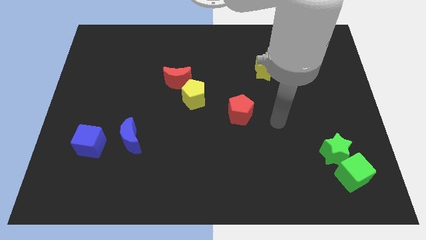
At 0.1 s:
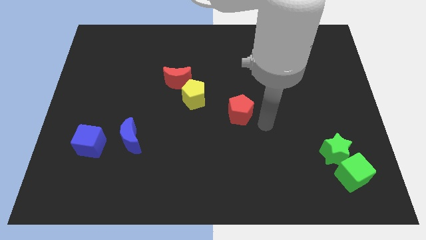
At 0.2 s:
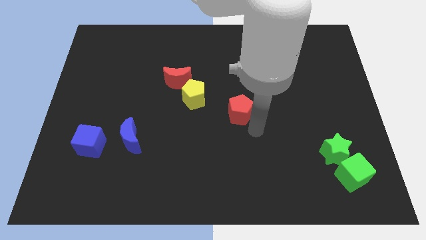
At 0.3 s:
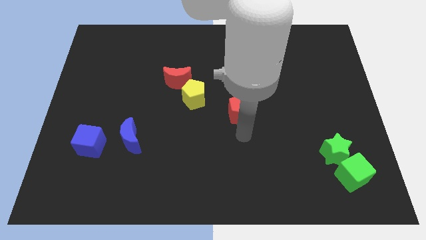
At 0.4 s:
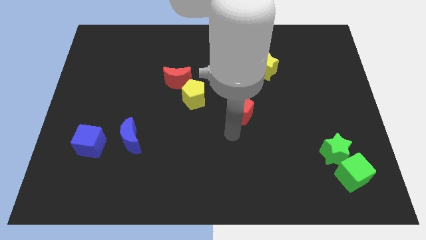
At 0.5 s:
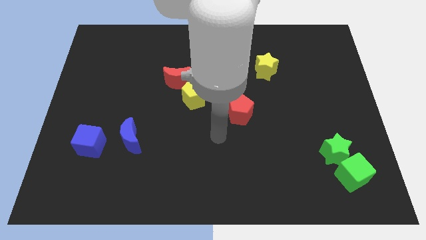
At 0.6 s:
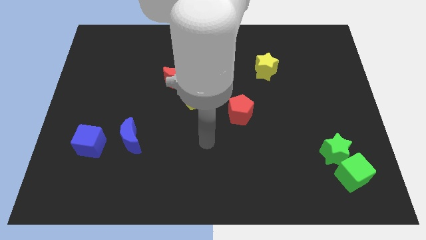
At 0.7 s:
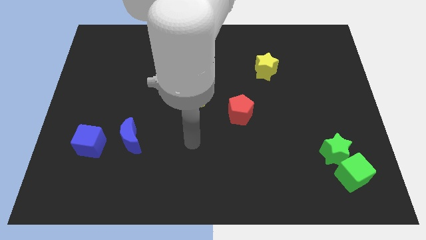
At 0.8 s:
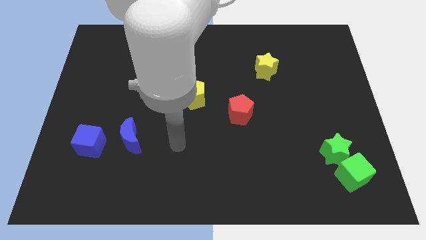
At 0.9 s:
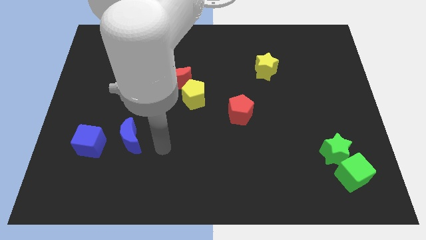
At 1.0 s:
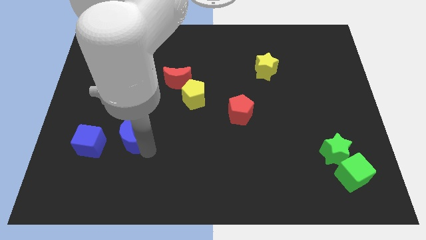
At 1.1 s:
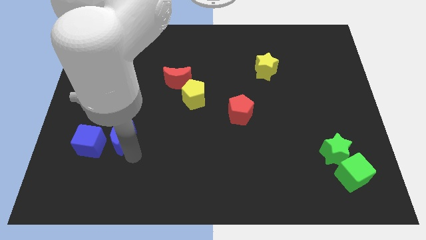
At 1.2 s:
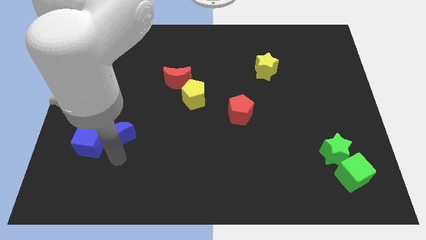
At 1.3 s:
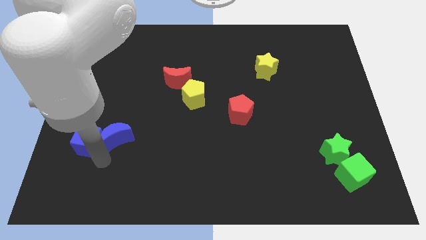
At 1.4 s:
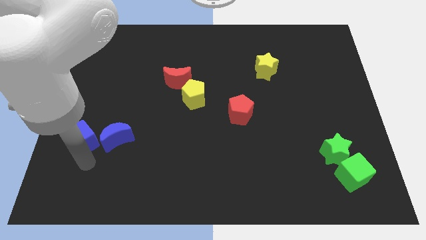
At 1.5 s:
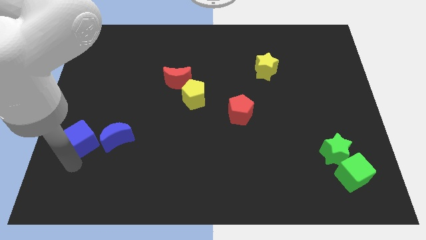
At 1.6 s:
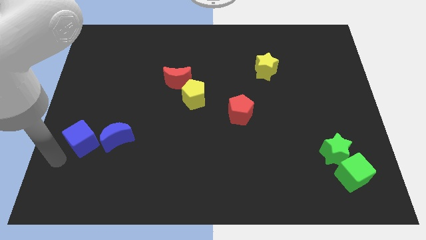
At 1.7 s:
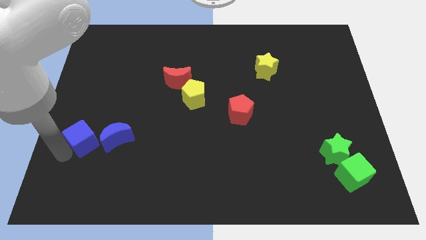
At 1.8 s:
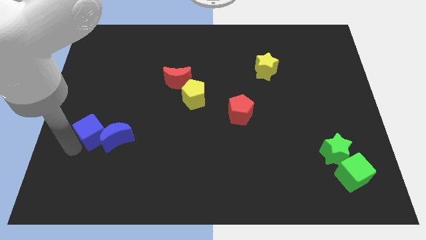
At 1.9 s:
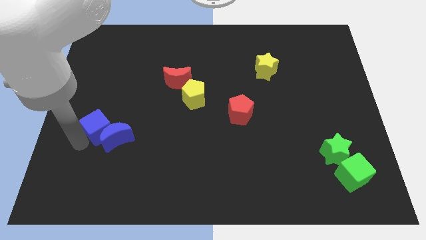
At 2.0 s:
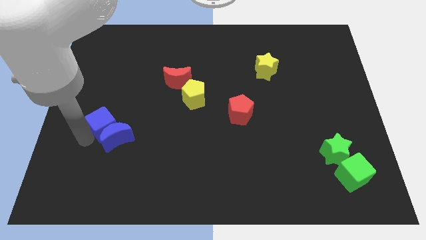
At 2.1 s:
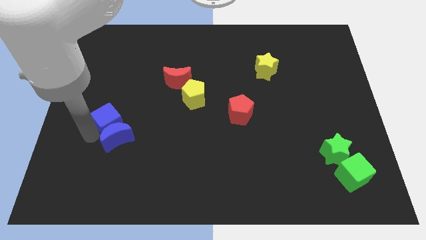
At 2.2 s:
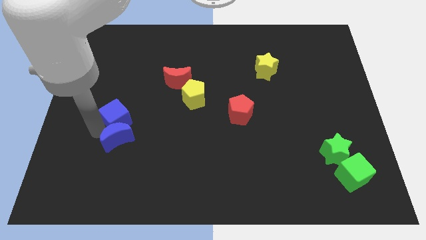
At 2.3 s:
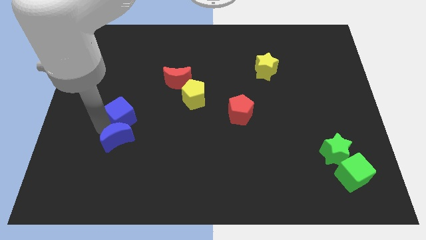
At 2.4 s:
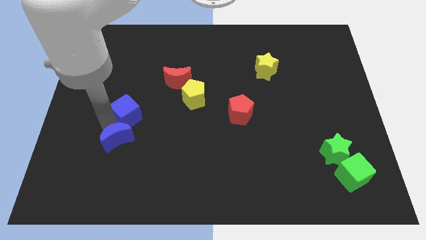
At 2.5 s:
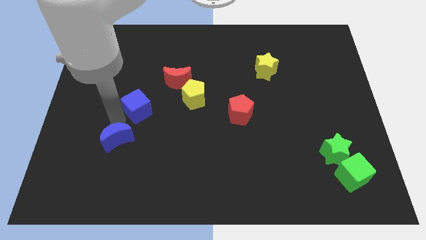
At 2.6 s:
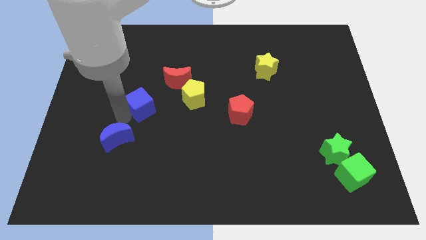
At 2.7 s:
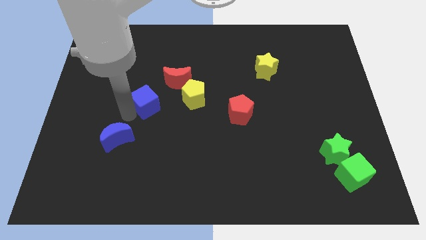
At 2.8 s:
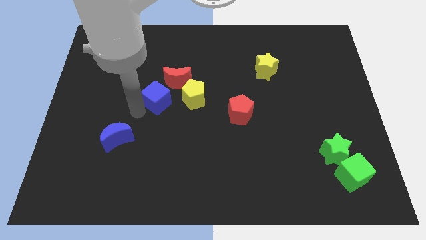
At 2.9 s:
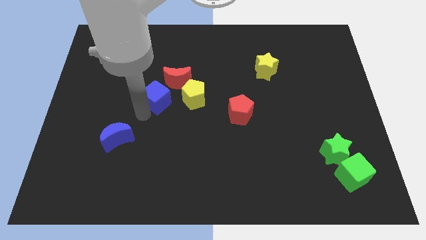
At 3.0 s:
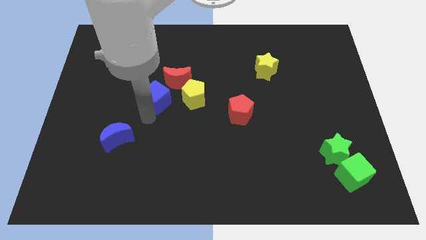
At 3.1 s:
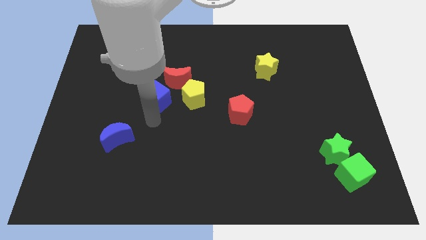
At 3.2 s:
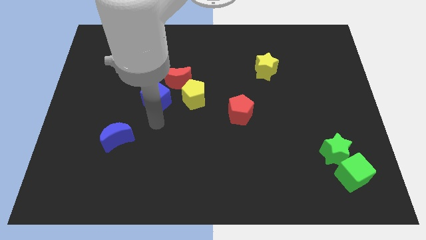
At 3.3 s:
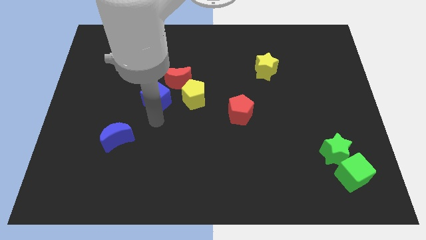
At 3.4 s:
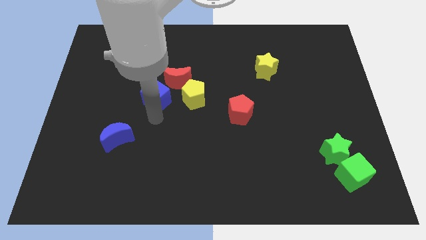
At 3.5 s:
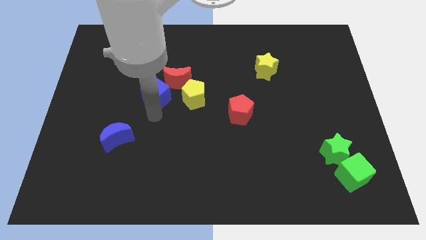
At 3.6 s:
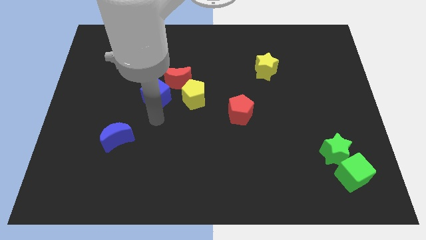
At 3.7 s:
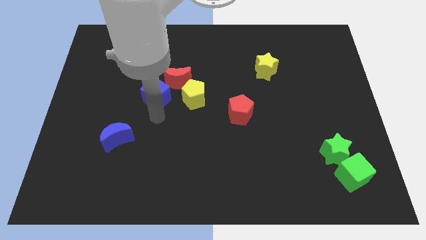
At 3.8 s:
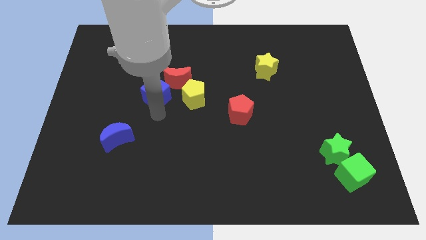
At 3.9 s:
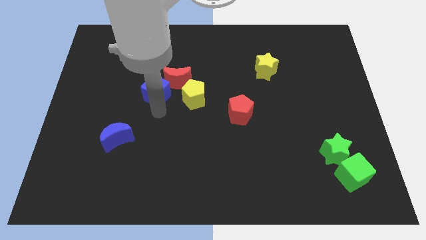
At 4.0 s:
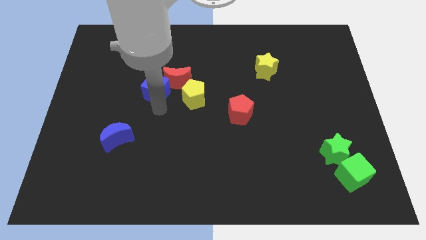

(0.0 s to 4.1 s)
slide the blue cube diagonally up and to the right

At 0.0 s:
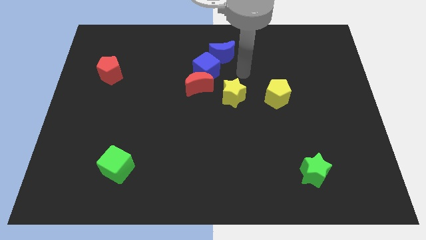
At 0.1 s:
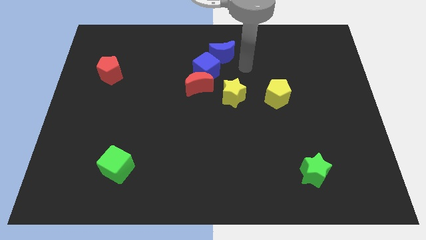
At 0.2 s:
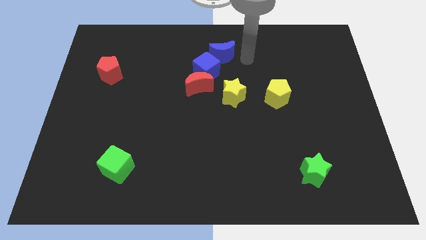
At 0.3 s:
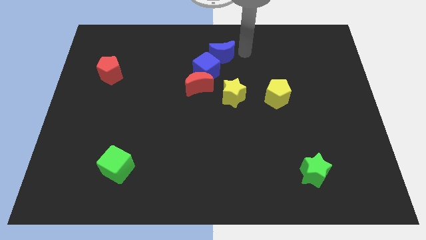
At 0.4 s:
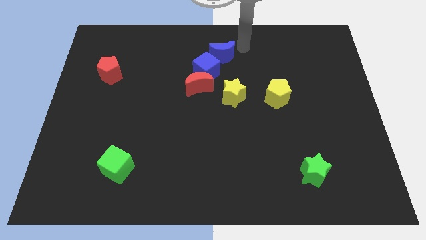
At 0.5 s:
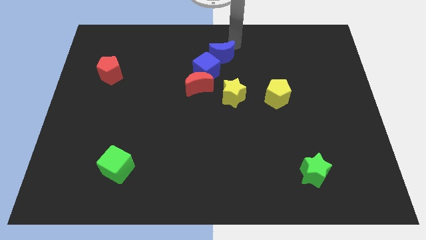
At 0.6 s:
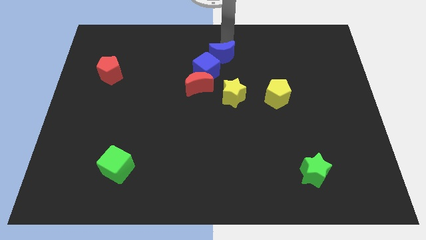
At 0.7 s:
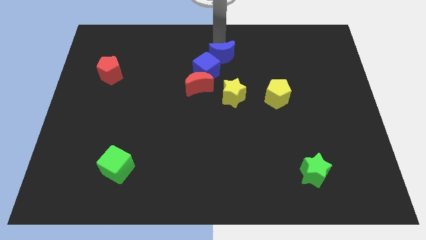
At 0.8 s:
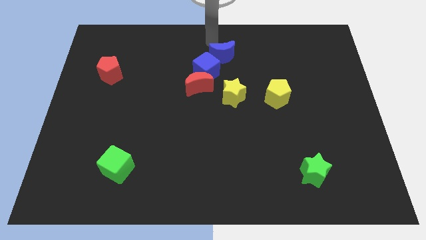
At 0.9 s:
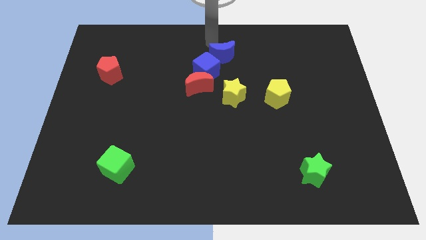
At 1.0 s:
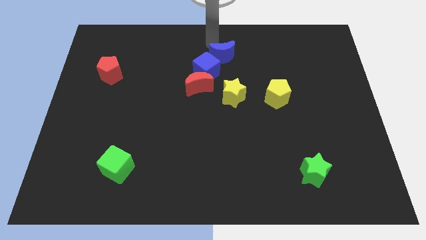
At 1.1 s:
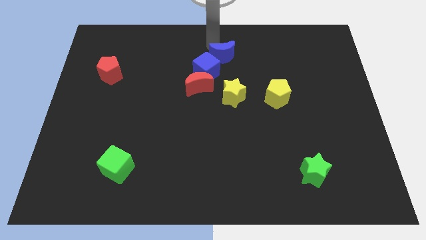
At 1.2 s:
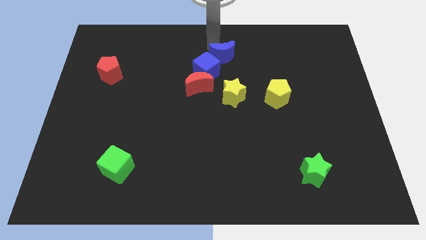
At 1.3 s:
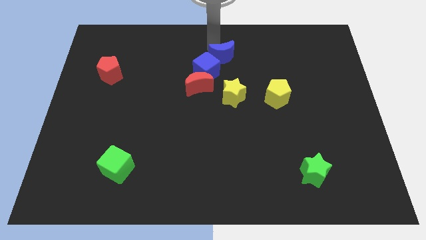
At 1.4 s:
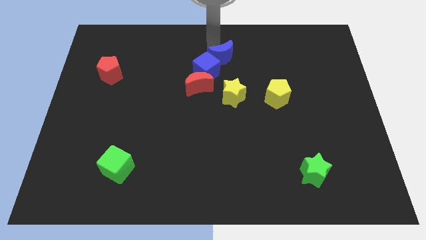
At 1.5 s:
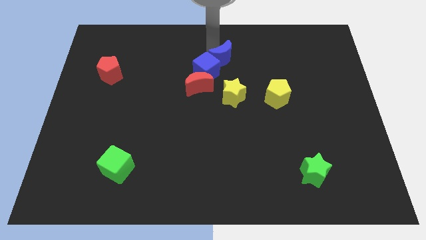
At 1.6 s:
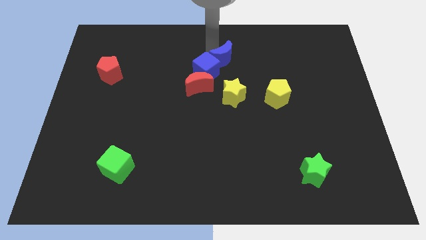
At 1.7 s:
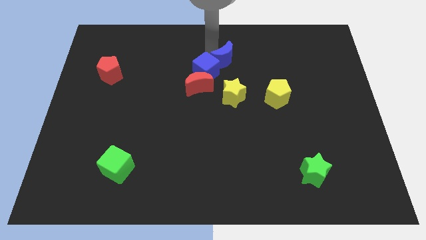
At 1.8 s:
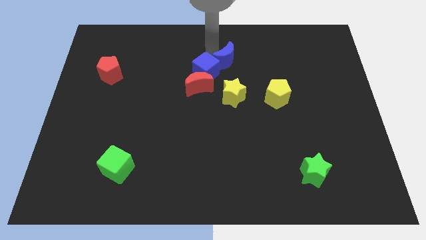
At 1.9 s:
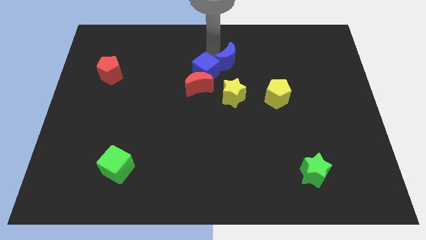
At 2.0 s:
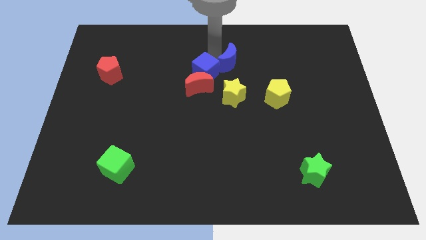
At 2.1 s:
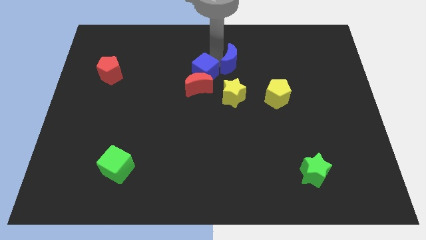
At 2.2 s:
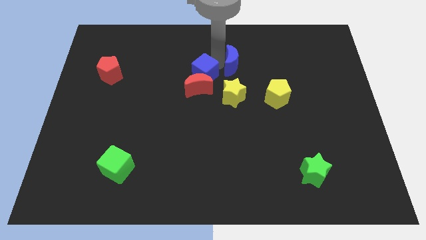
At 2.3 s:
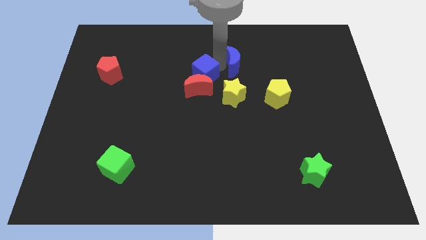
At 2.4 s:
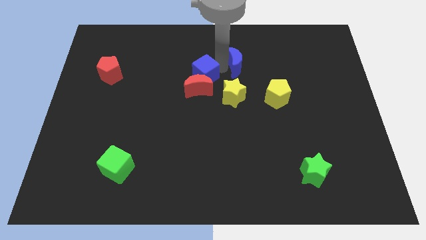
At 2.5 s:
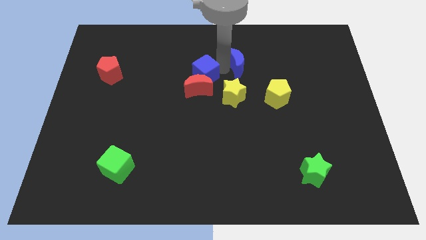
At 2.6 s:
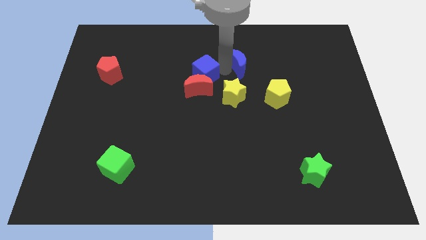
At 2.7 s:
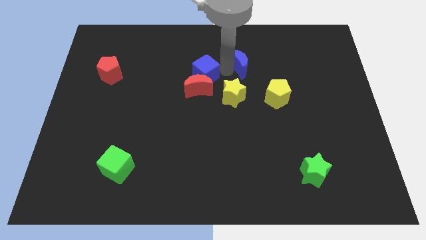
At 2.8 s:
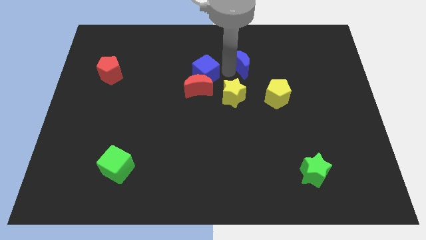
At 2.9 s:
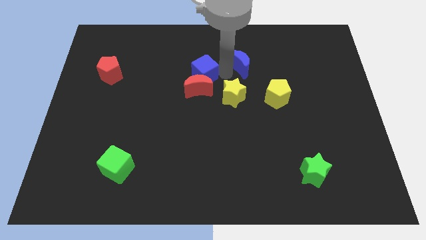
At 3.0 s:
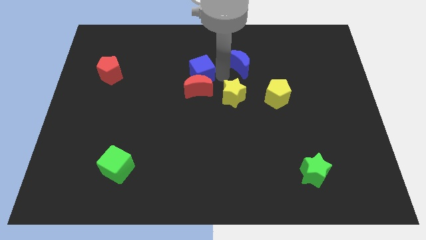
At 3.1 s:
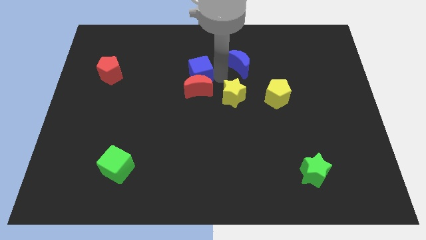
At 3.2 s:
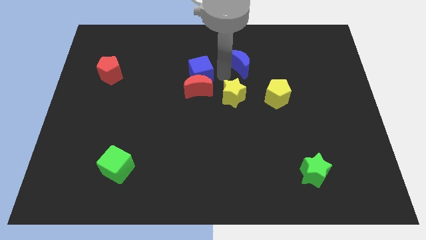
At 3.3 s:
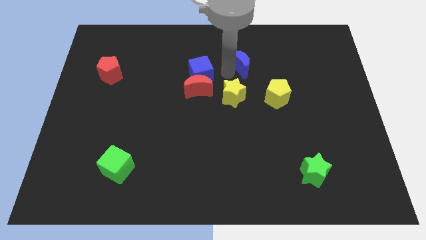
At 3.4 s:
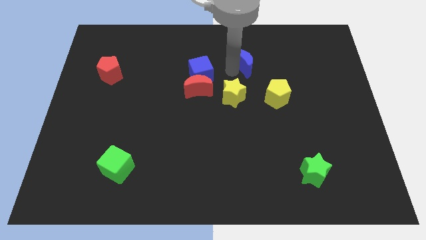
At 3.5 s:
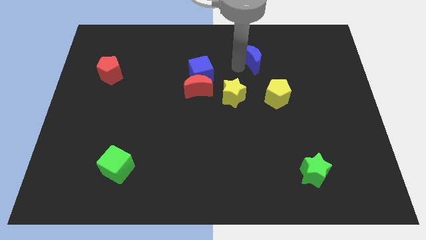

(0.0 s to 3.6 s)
slightly move the blue moon right
